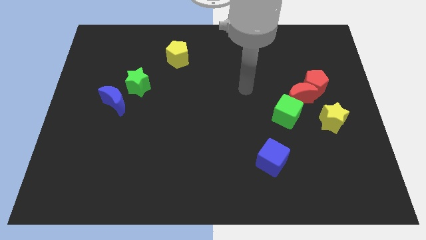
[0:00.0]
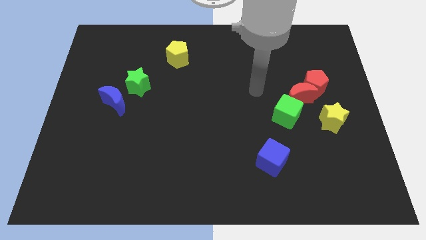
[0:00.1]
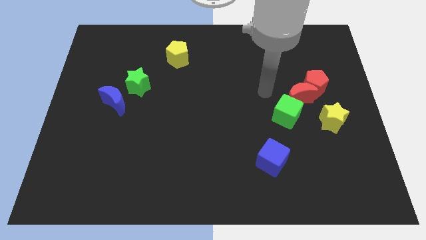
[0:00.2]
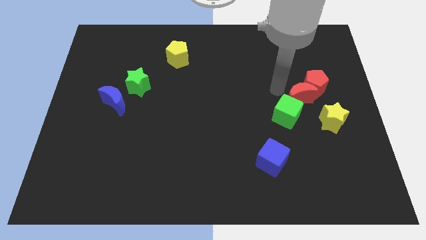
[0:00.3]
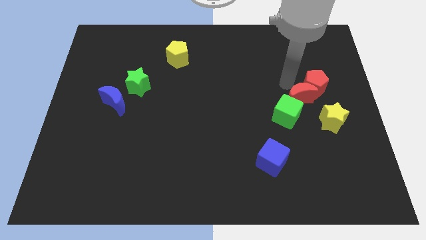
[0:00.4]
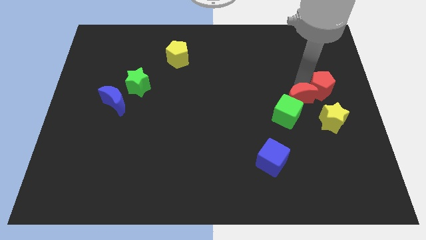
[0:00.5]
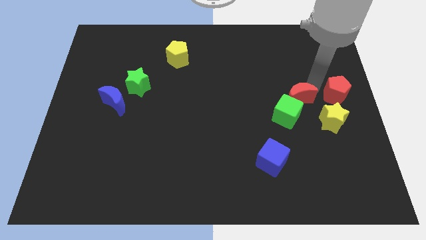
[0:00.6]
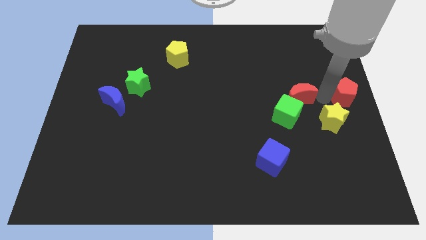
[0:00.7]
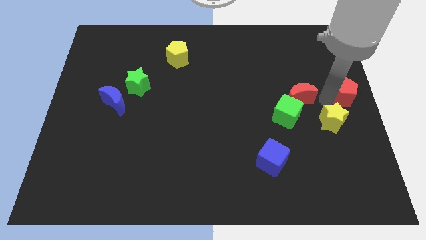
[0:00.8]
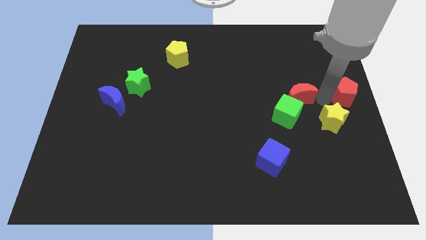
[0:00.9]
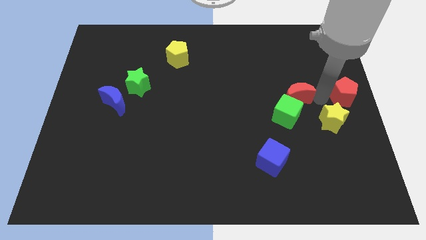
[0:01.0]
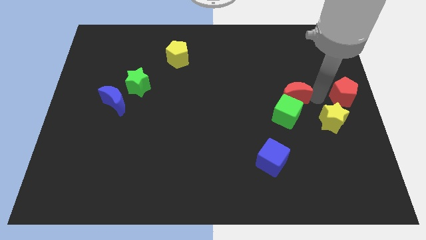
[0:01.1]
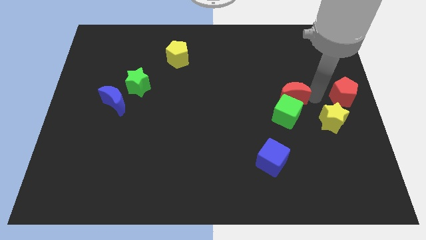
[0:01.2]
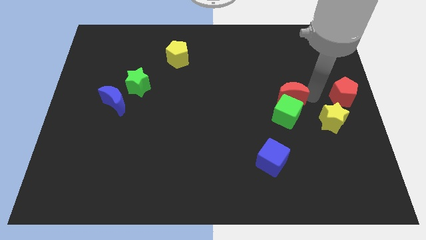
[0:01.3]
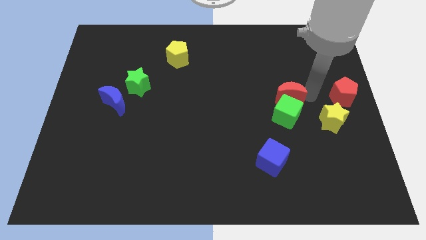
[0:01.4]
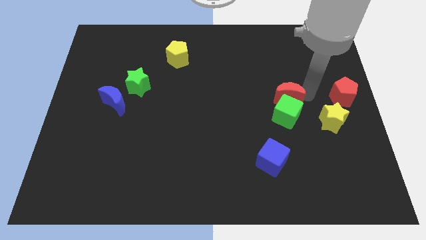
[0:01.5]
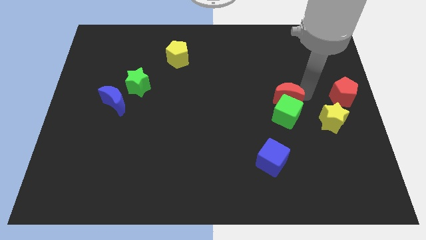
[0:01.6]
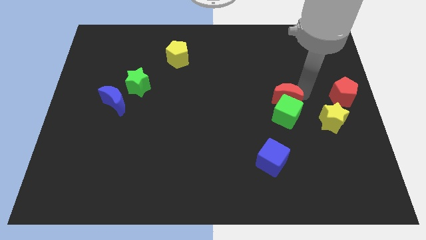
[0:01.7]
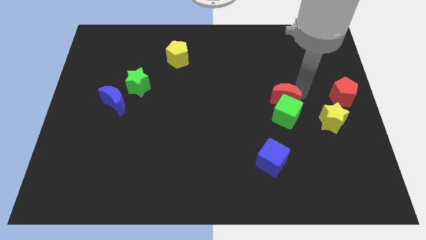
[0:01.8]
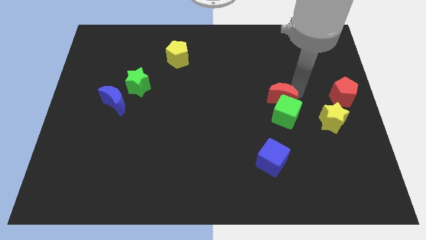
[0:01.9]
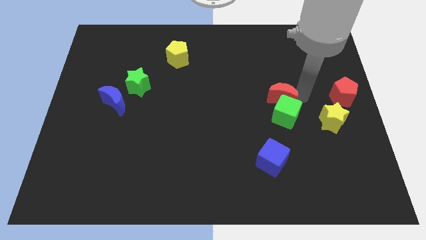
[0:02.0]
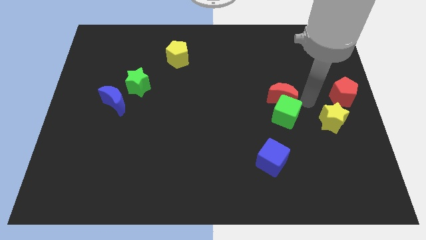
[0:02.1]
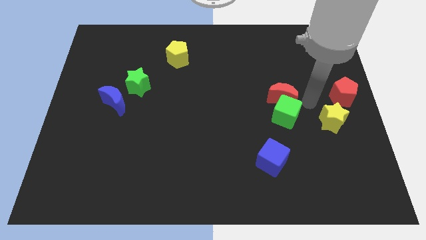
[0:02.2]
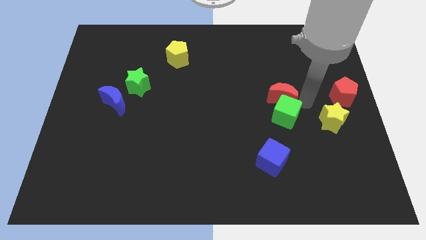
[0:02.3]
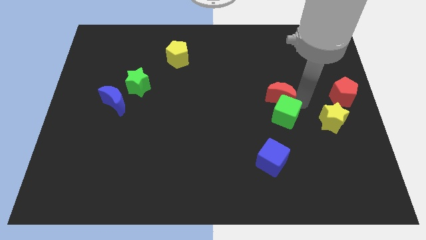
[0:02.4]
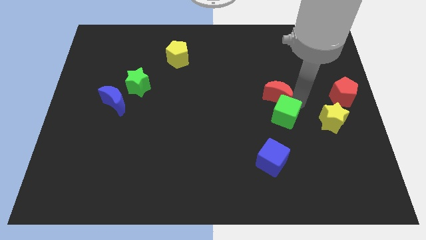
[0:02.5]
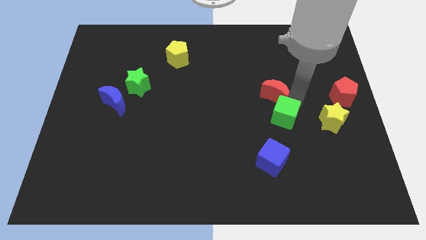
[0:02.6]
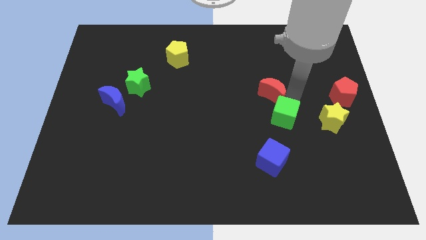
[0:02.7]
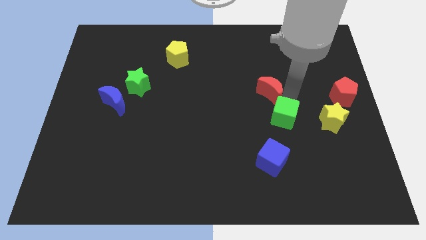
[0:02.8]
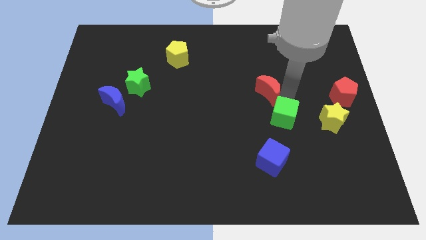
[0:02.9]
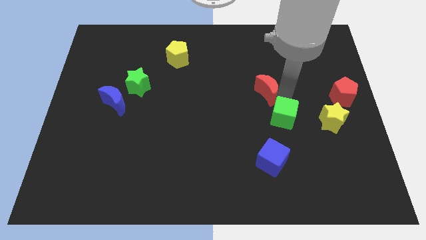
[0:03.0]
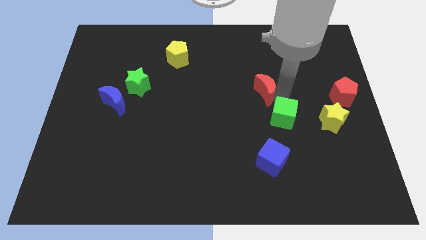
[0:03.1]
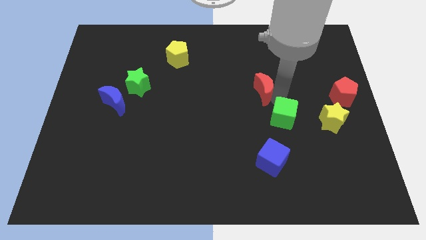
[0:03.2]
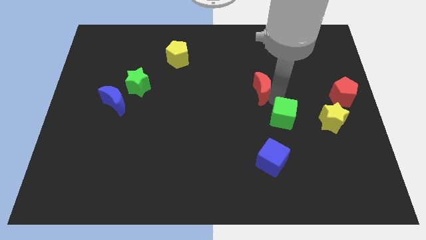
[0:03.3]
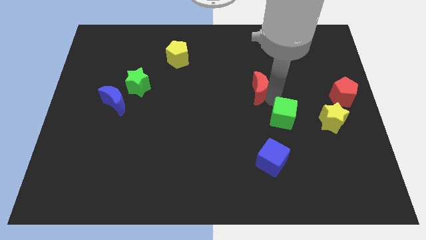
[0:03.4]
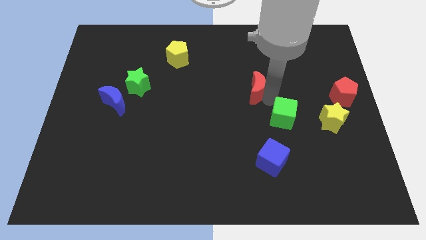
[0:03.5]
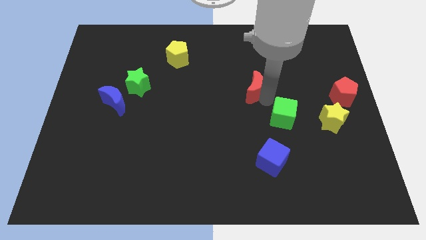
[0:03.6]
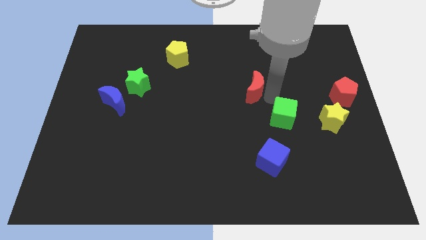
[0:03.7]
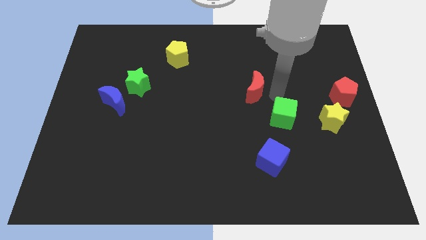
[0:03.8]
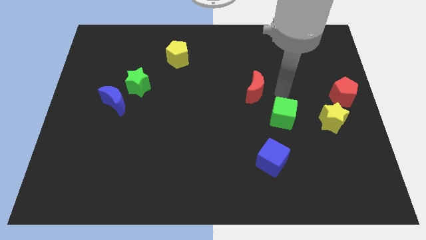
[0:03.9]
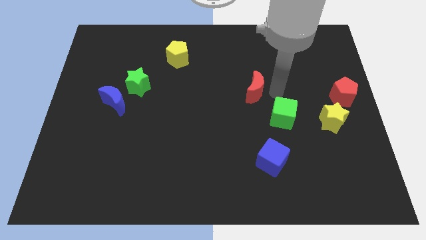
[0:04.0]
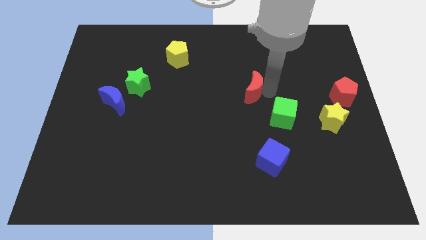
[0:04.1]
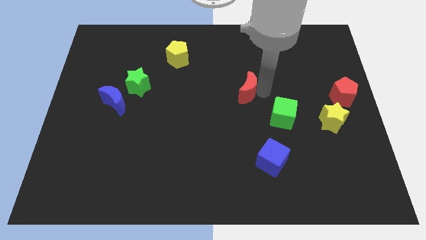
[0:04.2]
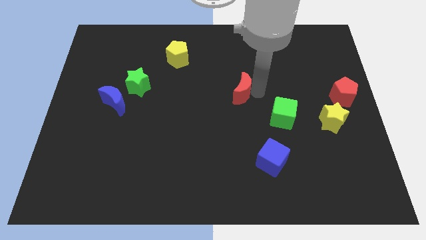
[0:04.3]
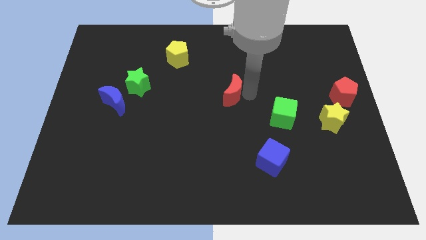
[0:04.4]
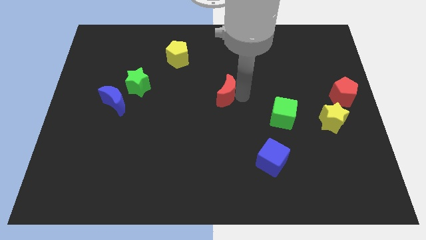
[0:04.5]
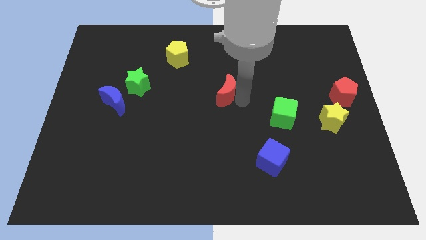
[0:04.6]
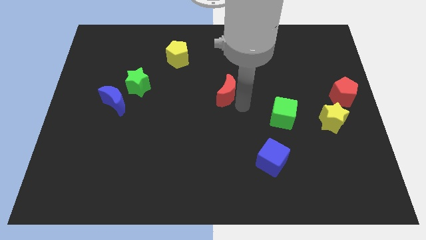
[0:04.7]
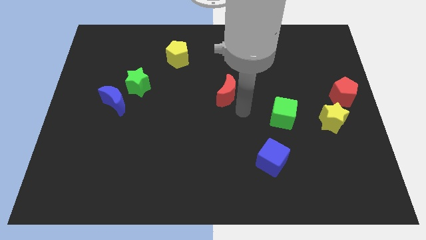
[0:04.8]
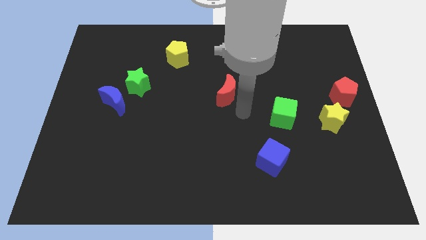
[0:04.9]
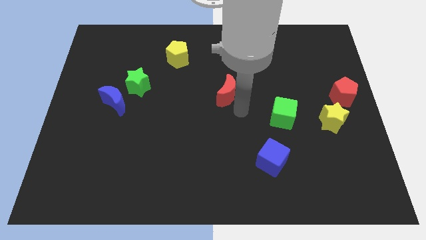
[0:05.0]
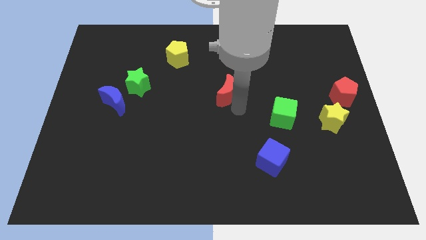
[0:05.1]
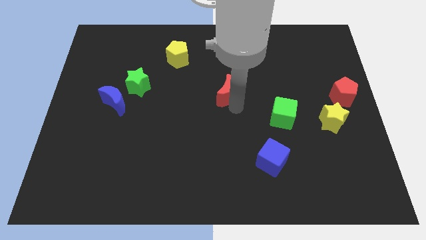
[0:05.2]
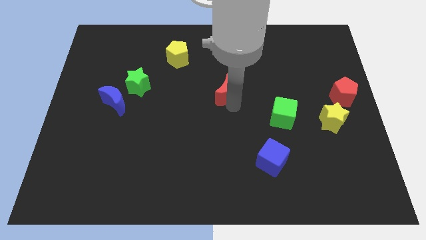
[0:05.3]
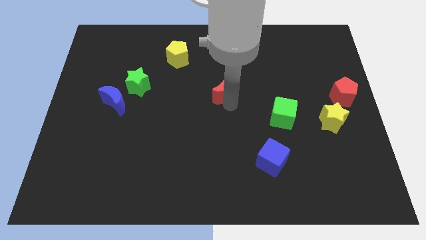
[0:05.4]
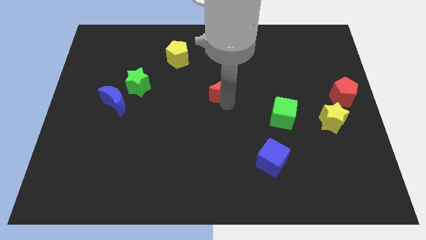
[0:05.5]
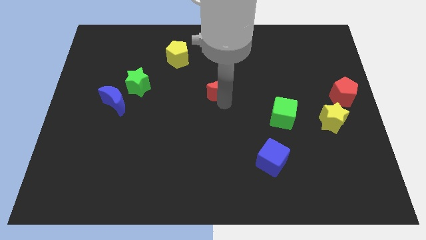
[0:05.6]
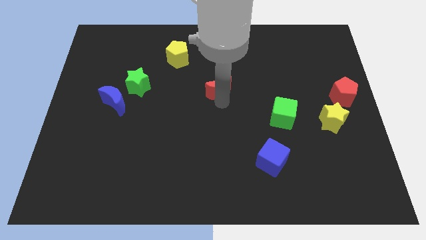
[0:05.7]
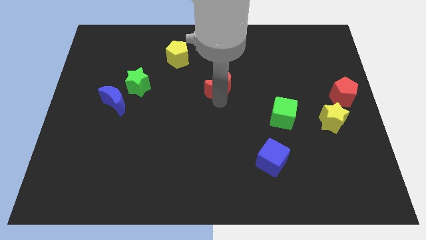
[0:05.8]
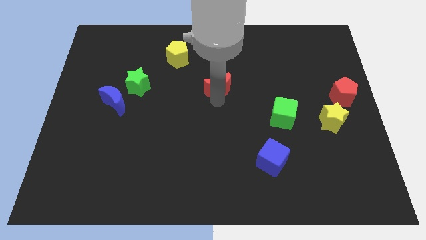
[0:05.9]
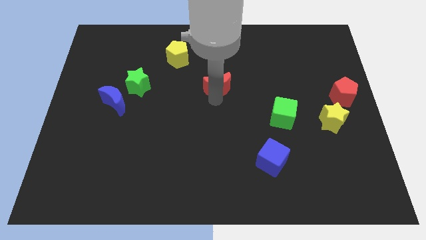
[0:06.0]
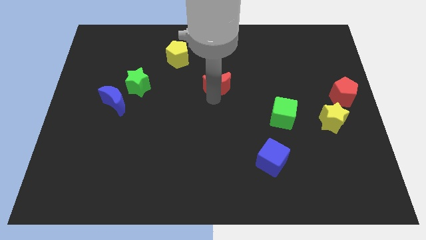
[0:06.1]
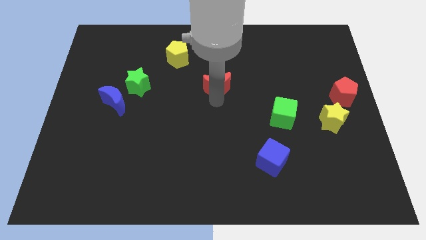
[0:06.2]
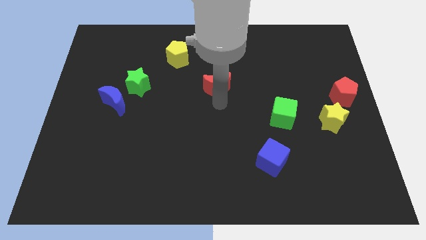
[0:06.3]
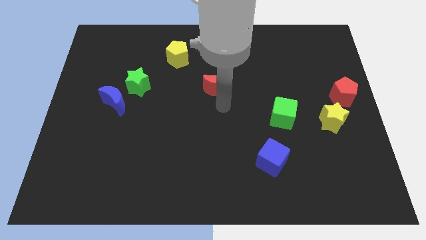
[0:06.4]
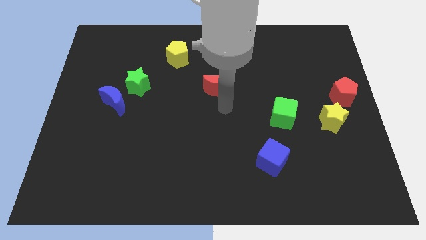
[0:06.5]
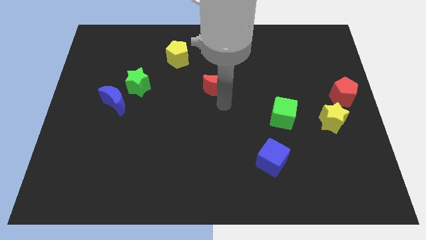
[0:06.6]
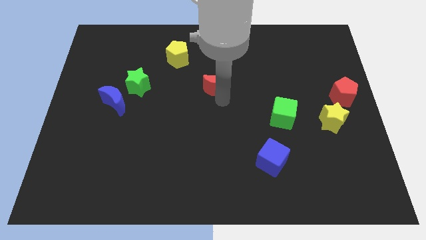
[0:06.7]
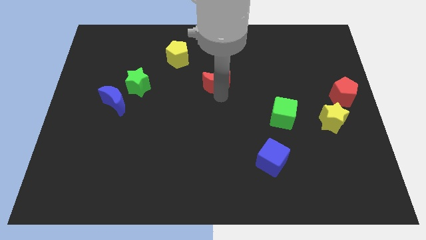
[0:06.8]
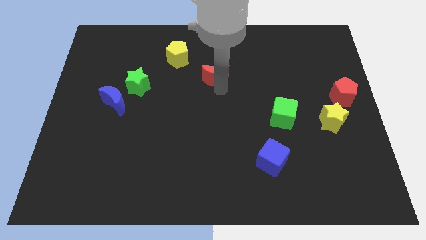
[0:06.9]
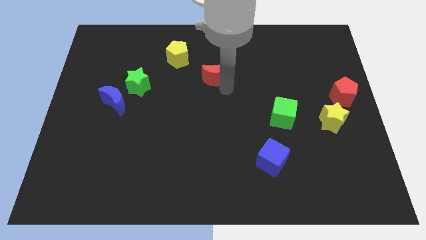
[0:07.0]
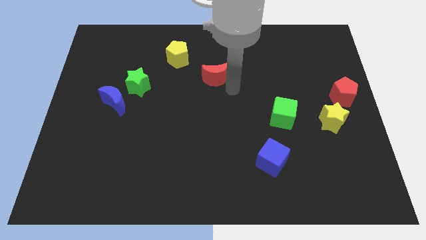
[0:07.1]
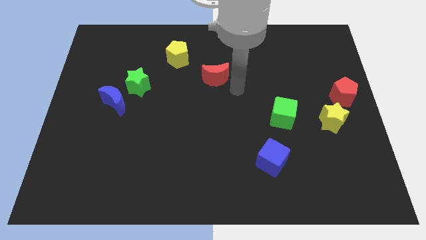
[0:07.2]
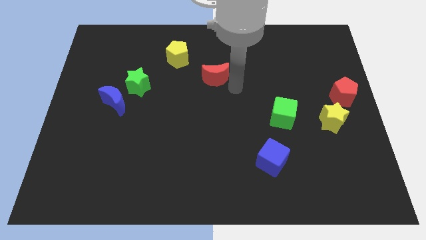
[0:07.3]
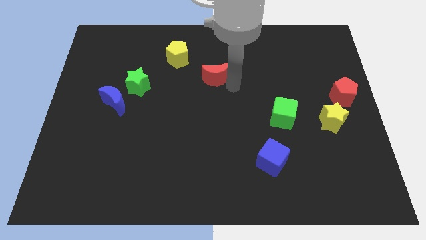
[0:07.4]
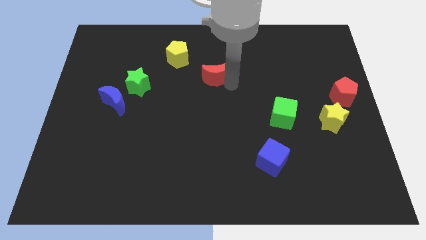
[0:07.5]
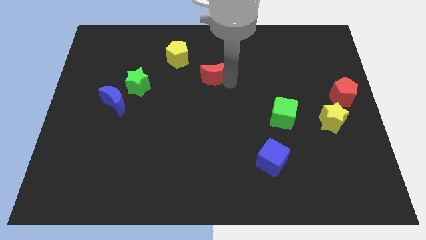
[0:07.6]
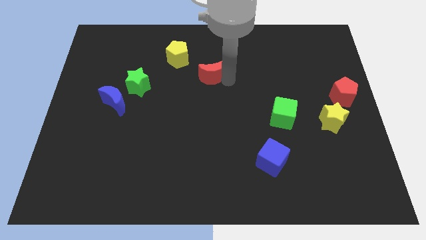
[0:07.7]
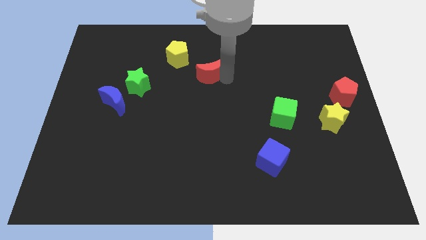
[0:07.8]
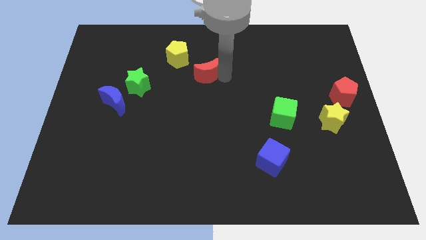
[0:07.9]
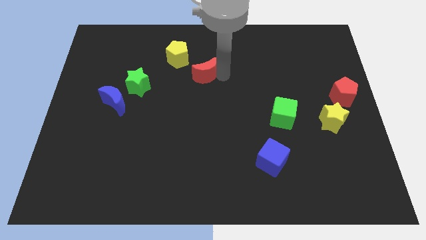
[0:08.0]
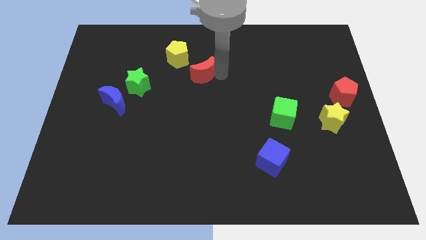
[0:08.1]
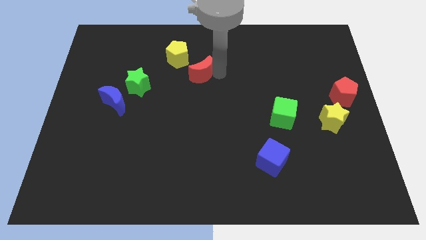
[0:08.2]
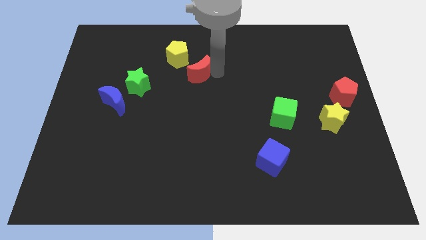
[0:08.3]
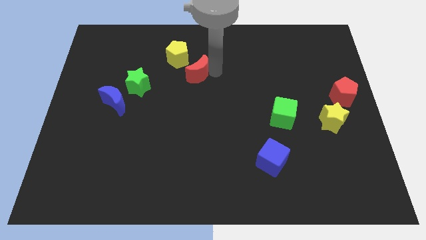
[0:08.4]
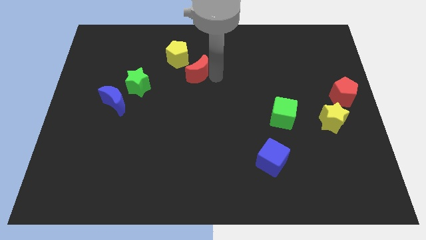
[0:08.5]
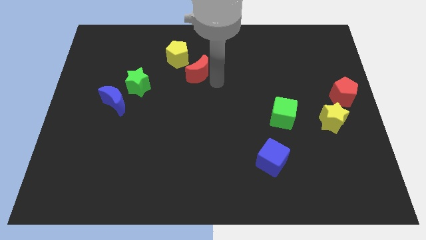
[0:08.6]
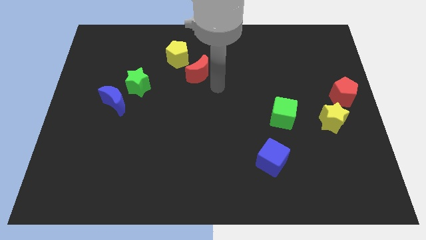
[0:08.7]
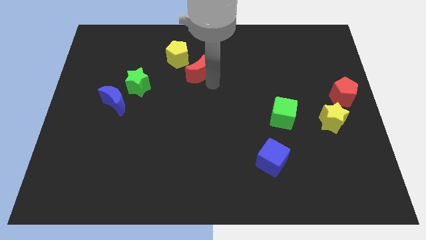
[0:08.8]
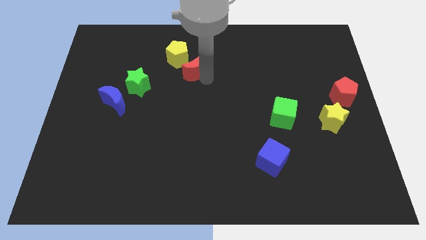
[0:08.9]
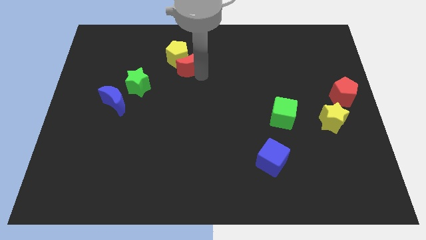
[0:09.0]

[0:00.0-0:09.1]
put the red moon next to the yellow pentagon
